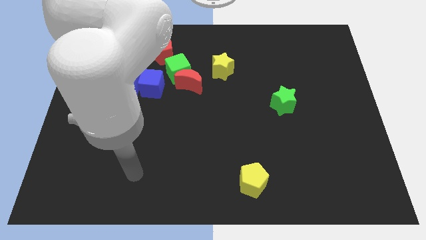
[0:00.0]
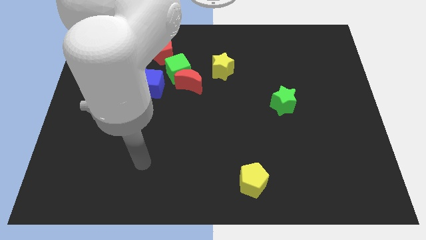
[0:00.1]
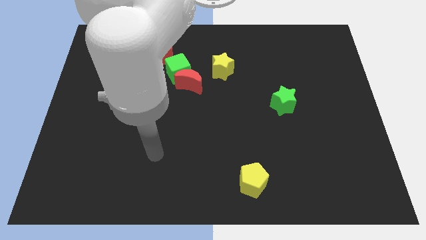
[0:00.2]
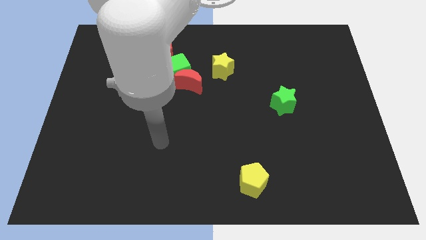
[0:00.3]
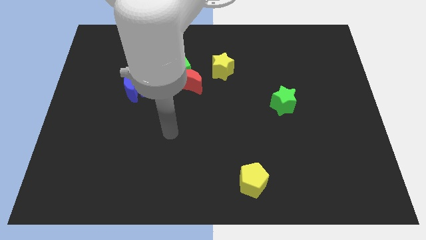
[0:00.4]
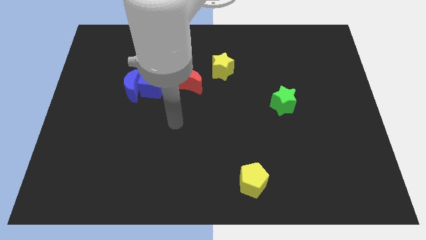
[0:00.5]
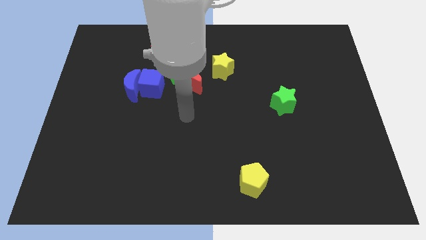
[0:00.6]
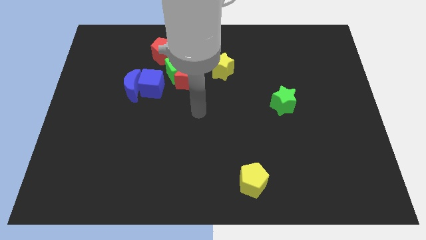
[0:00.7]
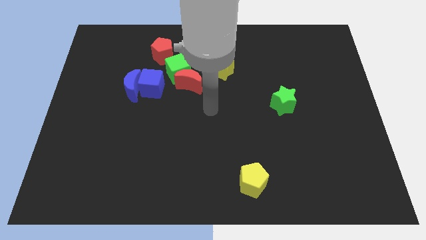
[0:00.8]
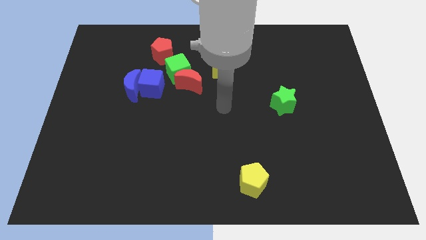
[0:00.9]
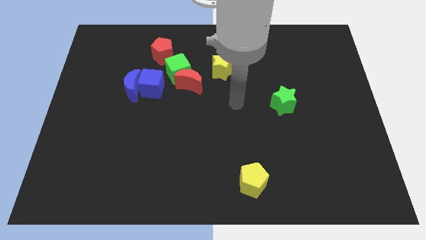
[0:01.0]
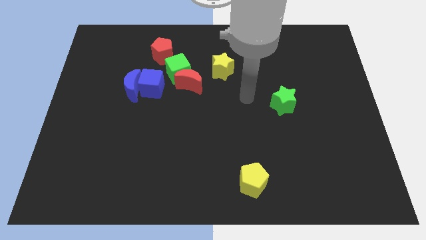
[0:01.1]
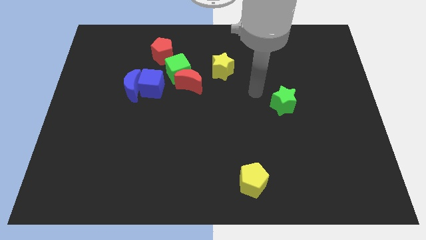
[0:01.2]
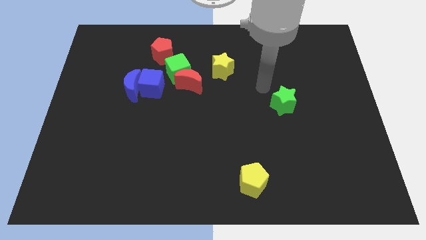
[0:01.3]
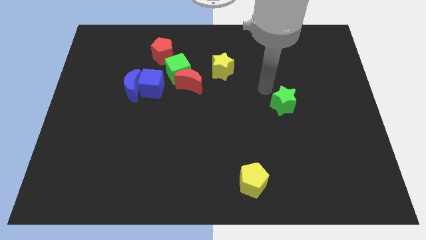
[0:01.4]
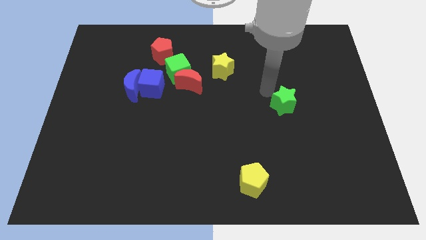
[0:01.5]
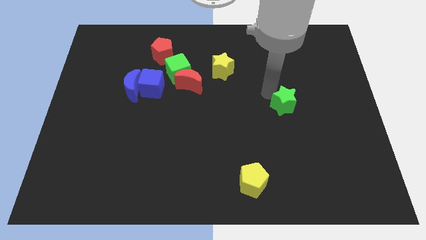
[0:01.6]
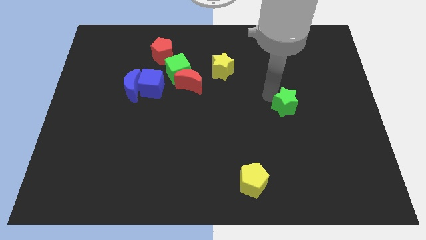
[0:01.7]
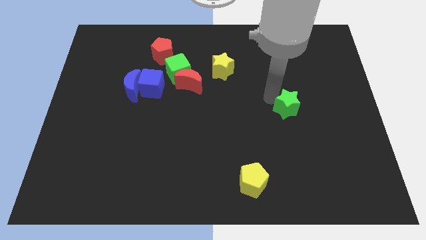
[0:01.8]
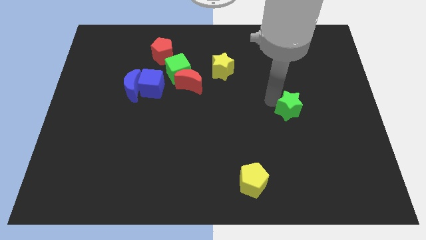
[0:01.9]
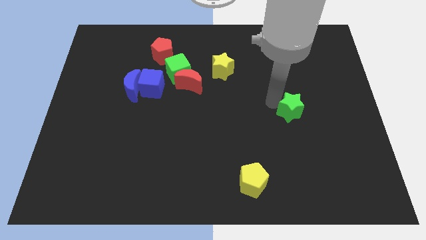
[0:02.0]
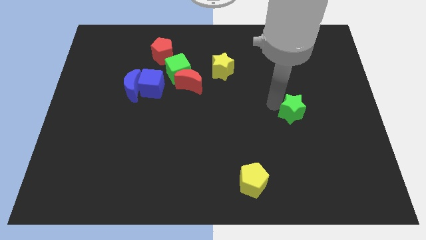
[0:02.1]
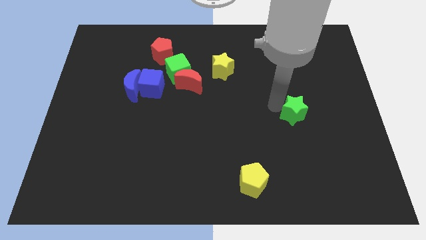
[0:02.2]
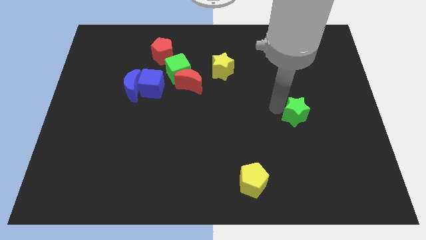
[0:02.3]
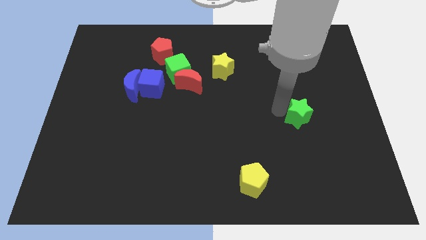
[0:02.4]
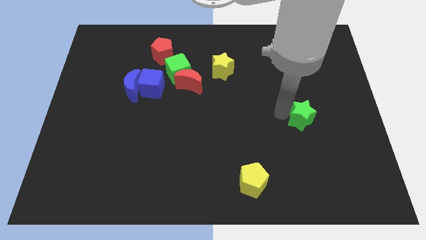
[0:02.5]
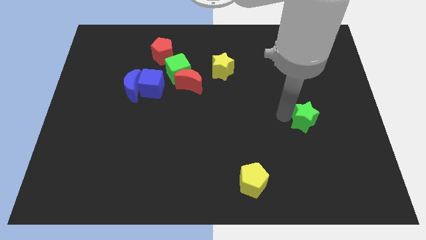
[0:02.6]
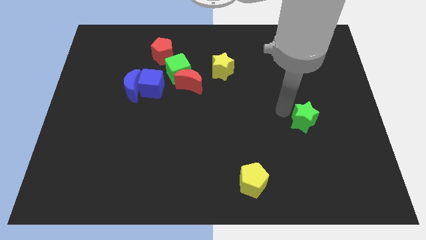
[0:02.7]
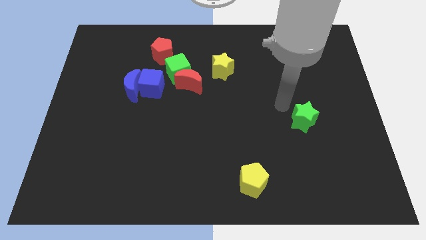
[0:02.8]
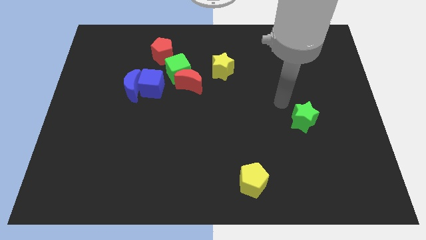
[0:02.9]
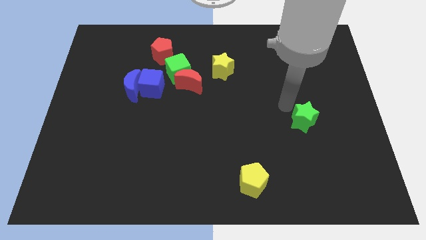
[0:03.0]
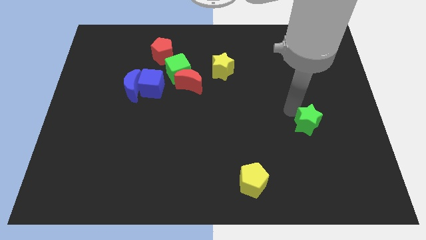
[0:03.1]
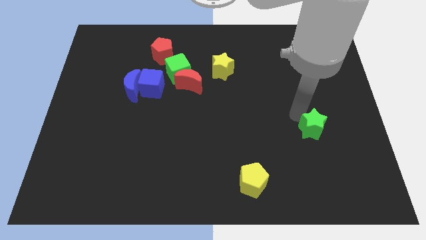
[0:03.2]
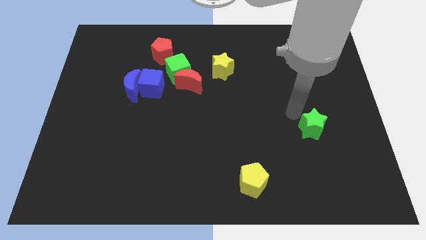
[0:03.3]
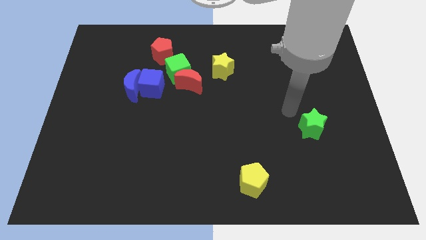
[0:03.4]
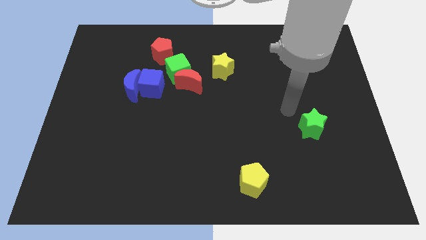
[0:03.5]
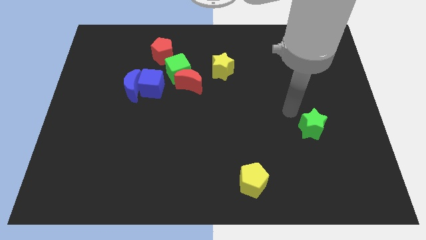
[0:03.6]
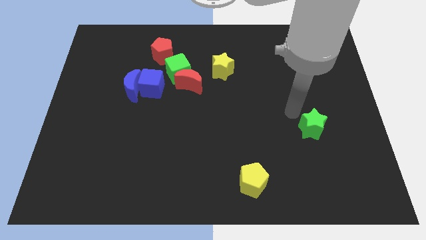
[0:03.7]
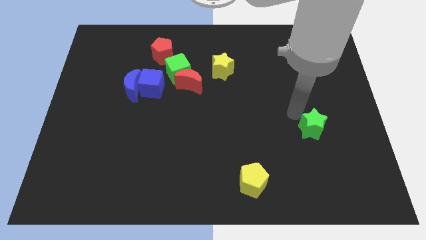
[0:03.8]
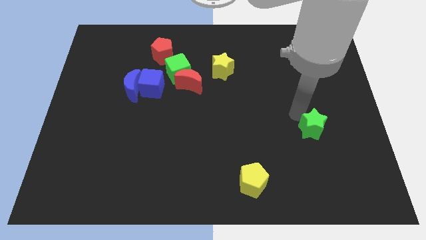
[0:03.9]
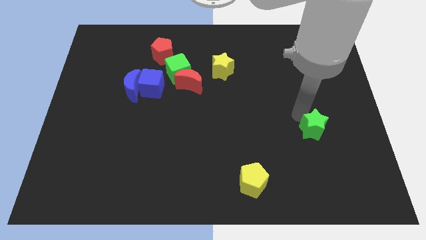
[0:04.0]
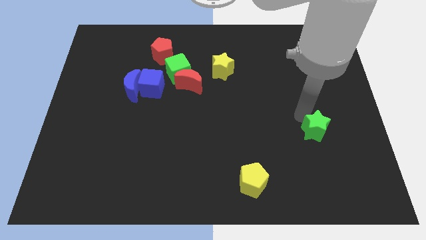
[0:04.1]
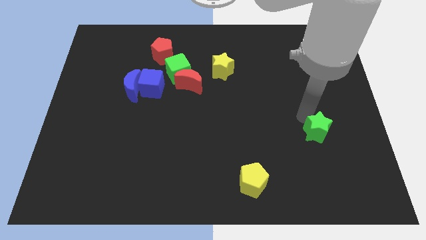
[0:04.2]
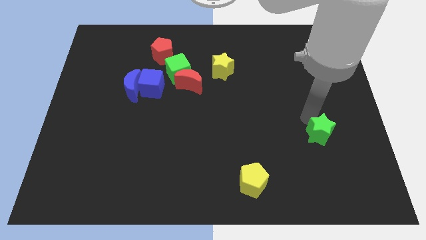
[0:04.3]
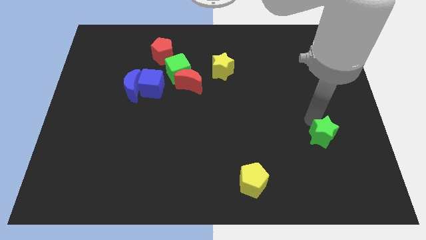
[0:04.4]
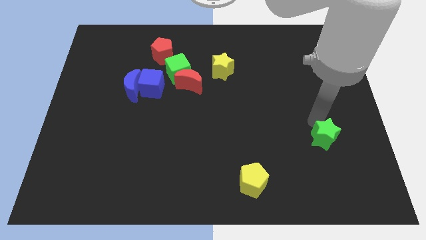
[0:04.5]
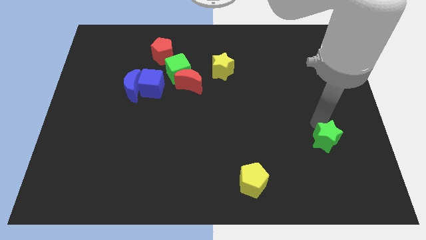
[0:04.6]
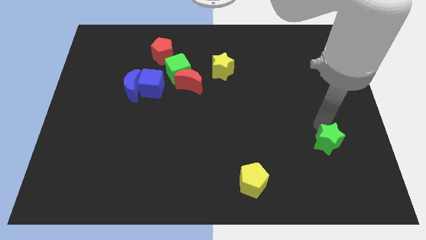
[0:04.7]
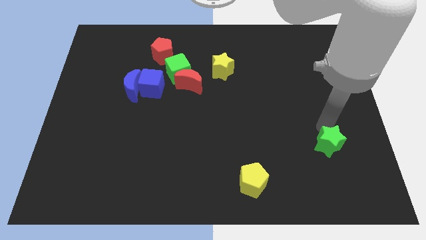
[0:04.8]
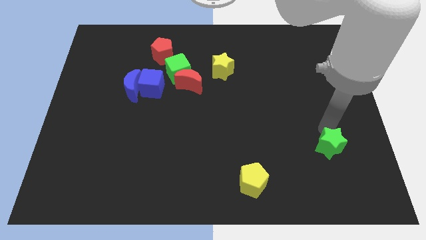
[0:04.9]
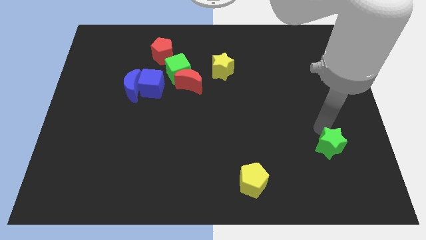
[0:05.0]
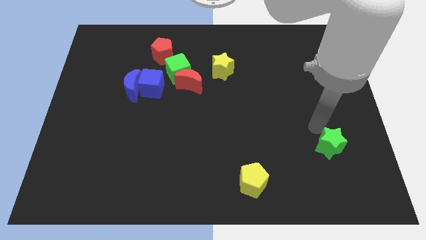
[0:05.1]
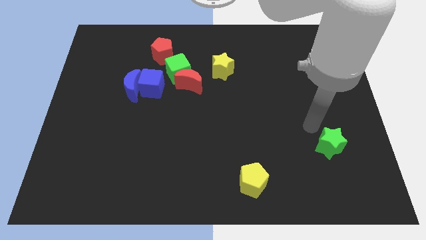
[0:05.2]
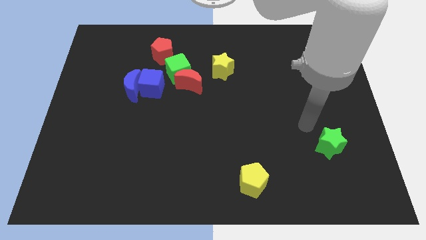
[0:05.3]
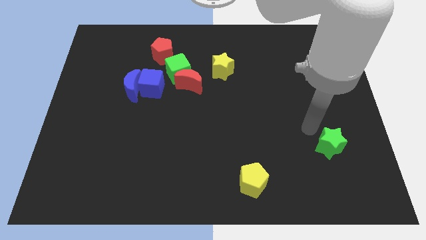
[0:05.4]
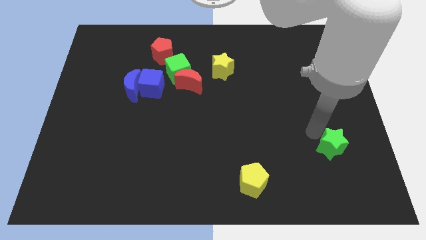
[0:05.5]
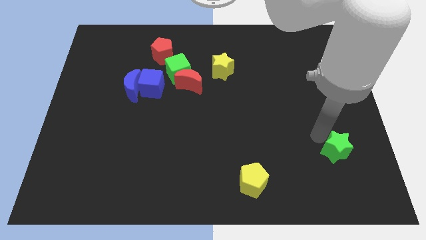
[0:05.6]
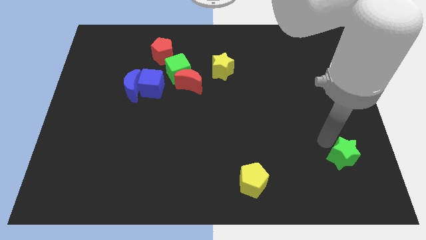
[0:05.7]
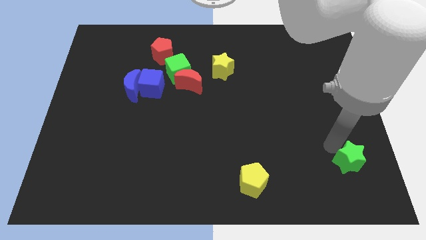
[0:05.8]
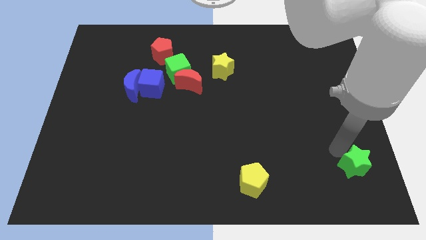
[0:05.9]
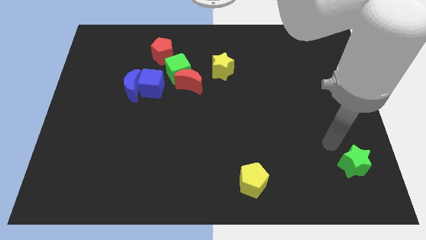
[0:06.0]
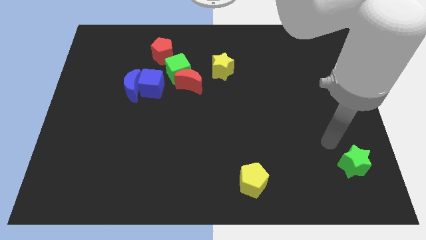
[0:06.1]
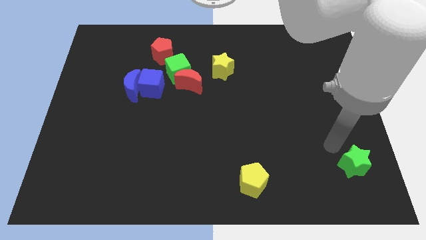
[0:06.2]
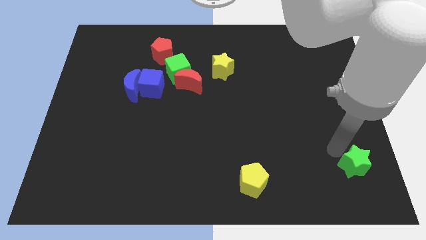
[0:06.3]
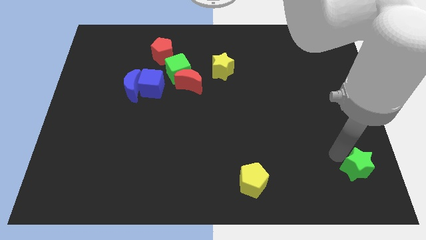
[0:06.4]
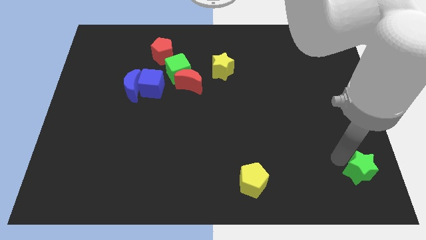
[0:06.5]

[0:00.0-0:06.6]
put the green star to the bottom right corner
